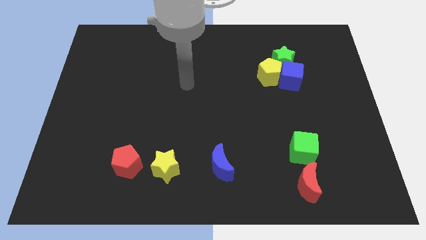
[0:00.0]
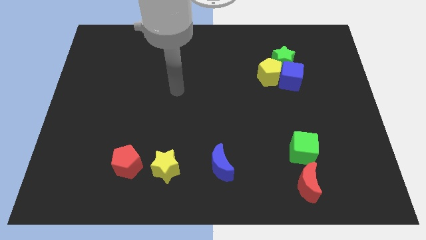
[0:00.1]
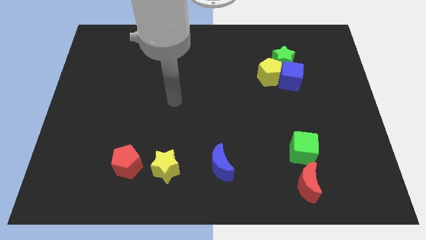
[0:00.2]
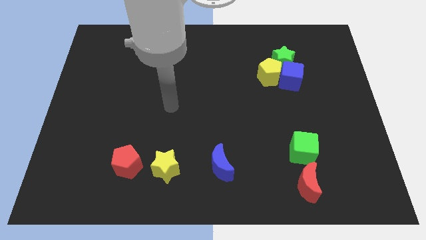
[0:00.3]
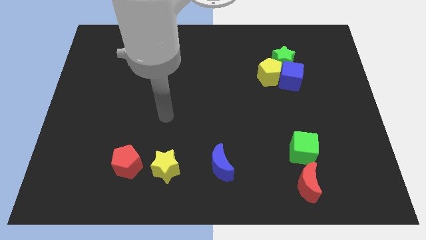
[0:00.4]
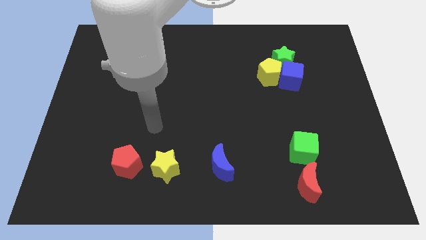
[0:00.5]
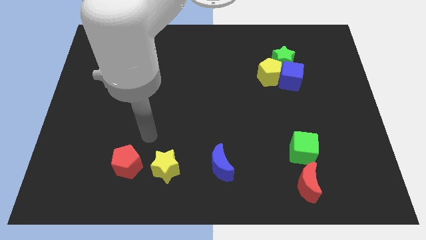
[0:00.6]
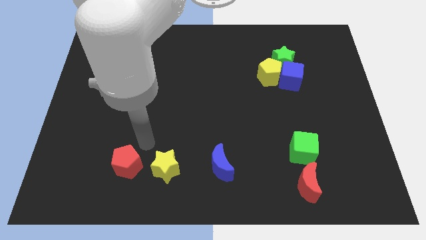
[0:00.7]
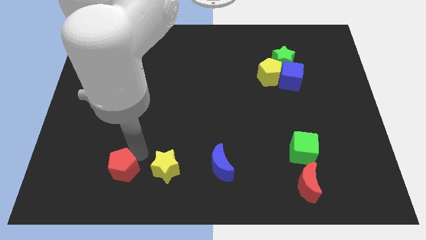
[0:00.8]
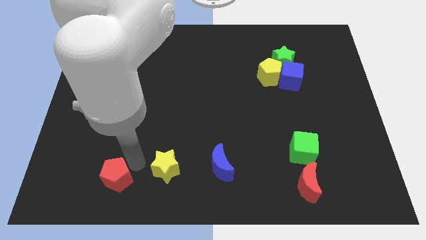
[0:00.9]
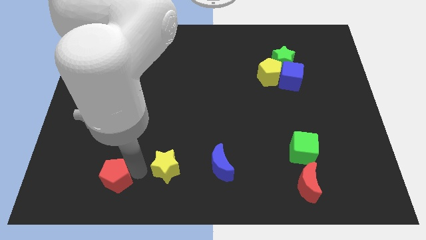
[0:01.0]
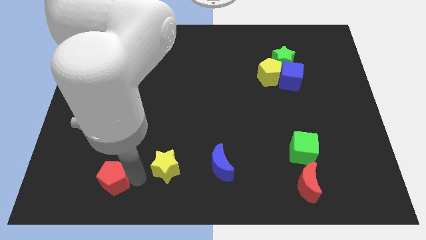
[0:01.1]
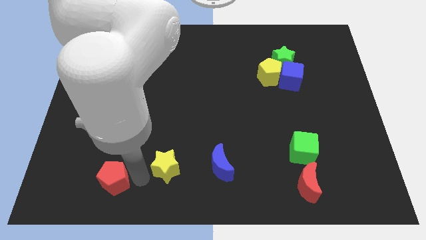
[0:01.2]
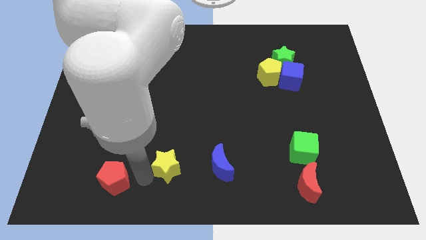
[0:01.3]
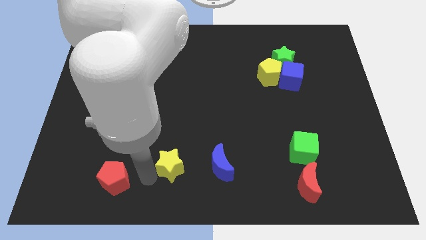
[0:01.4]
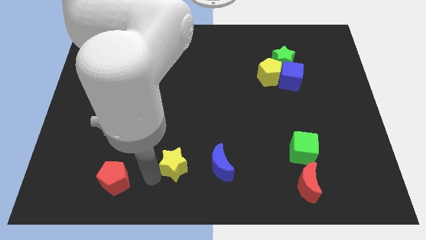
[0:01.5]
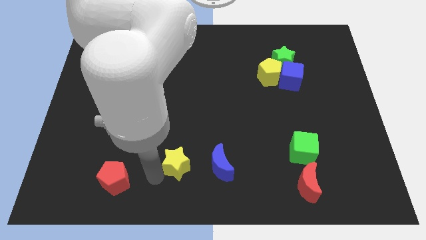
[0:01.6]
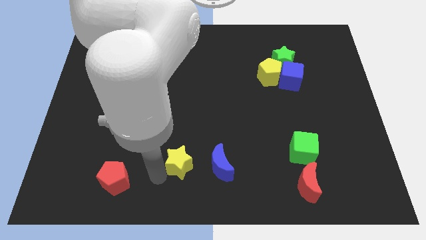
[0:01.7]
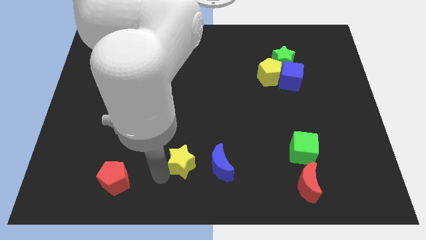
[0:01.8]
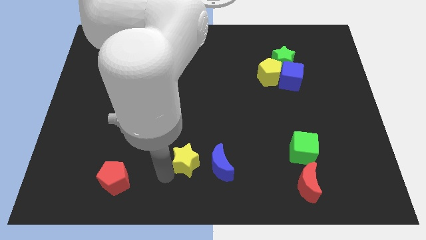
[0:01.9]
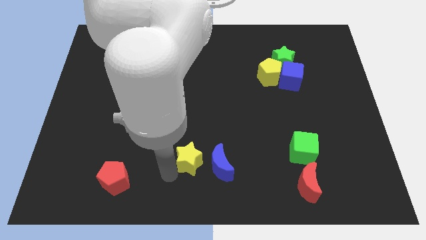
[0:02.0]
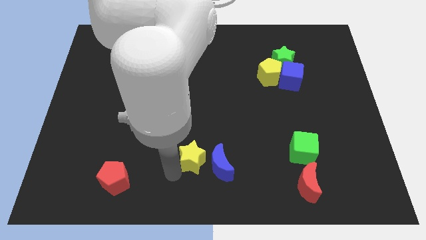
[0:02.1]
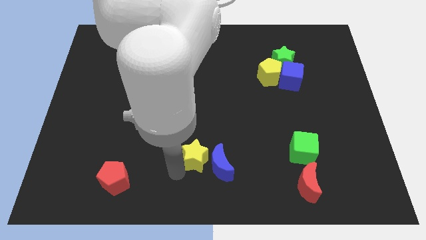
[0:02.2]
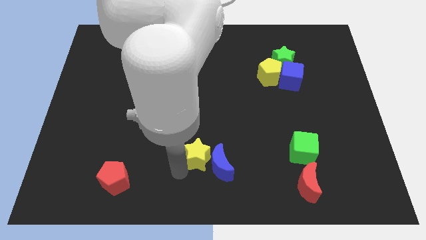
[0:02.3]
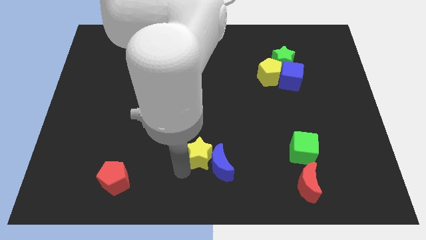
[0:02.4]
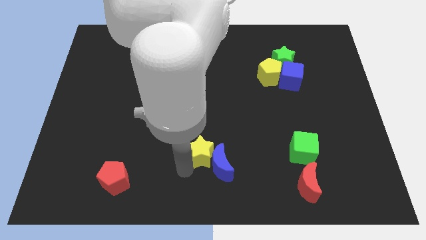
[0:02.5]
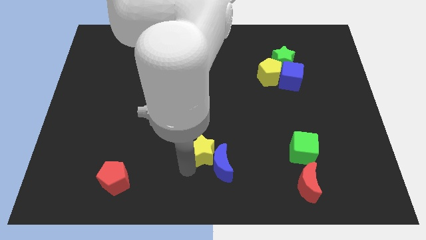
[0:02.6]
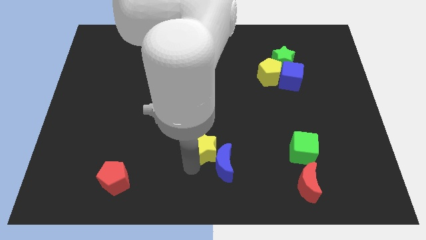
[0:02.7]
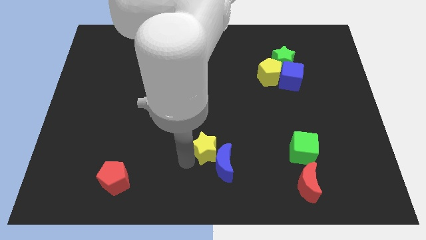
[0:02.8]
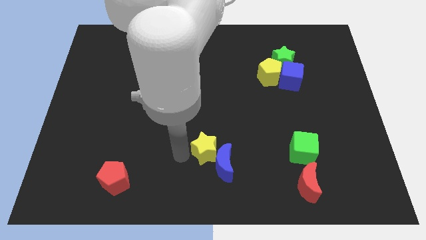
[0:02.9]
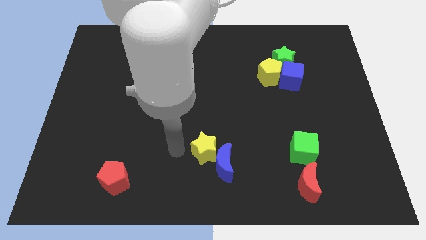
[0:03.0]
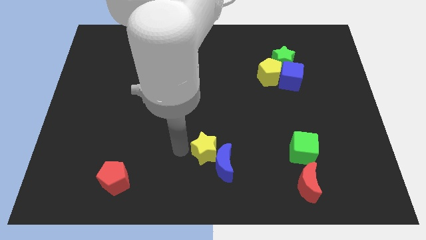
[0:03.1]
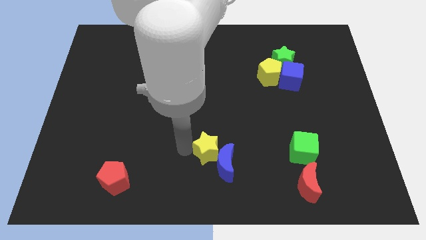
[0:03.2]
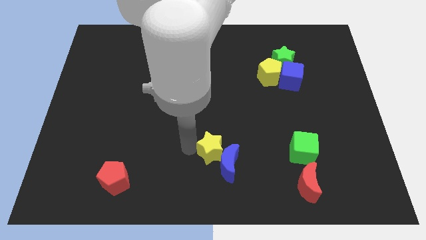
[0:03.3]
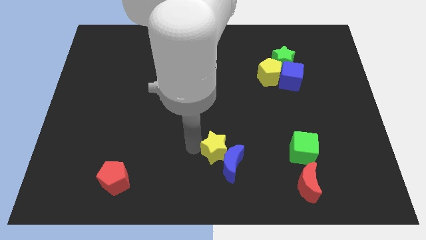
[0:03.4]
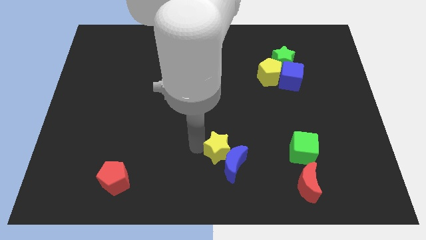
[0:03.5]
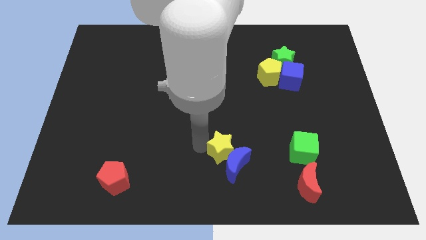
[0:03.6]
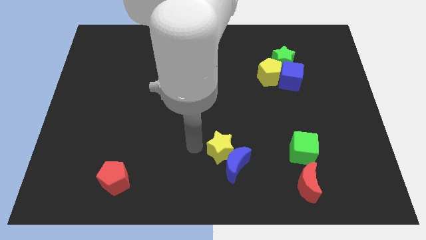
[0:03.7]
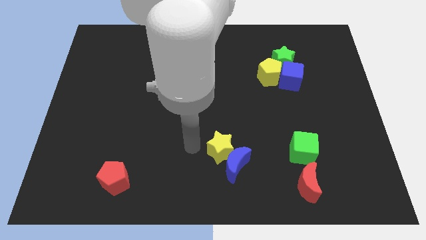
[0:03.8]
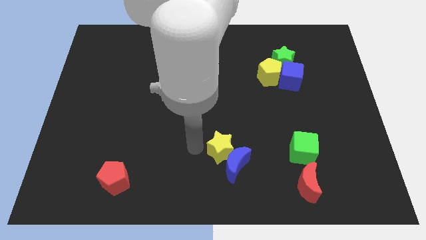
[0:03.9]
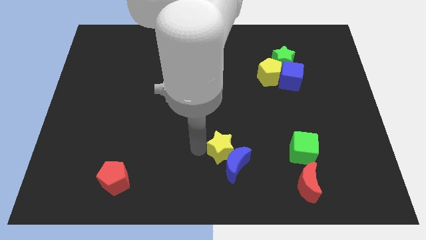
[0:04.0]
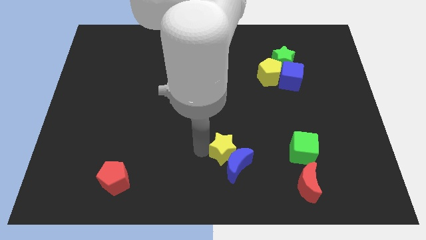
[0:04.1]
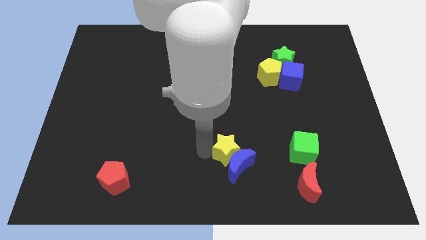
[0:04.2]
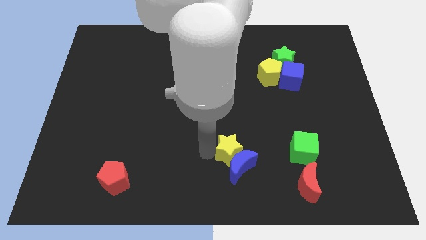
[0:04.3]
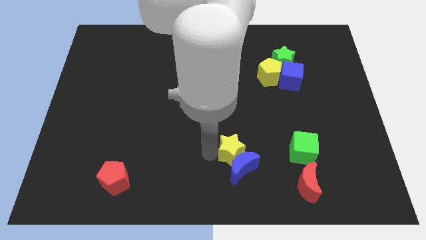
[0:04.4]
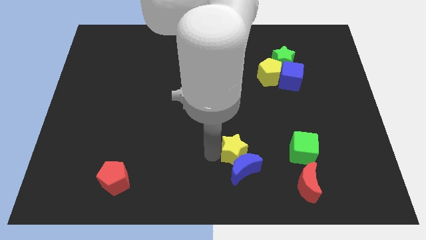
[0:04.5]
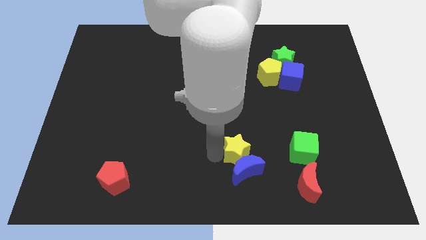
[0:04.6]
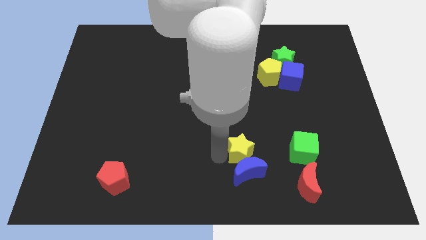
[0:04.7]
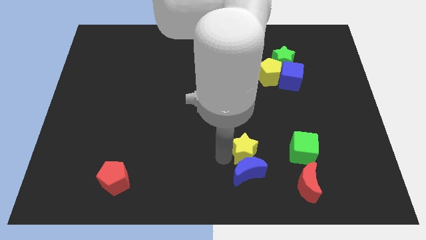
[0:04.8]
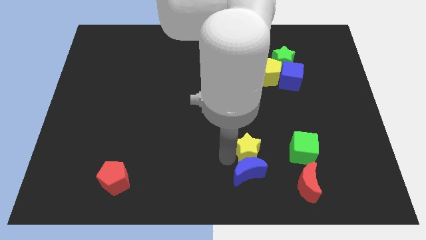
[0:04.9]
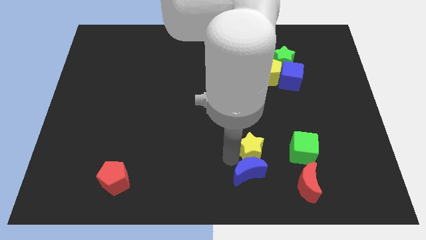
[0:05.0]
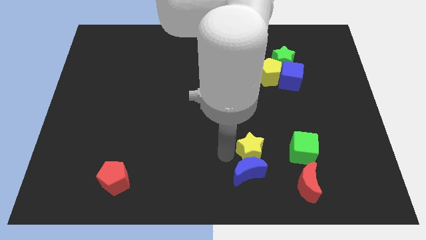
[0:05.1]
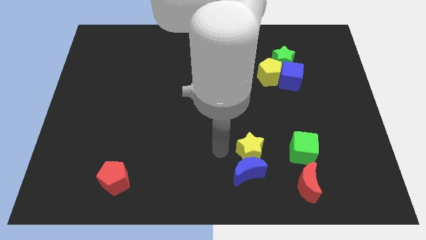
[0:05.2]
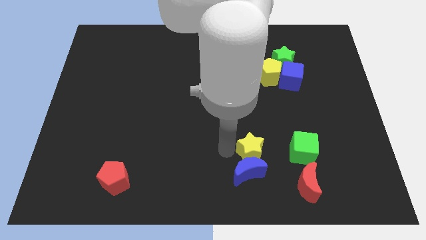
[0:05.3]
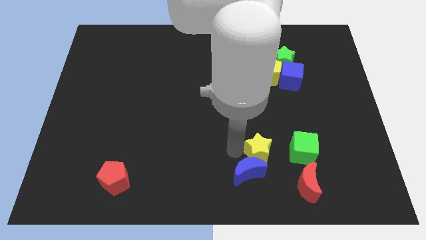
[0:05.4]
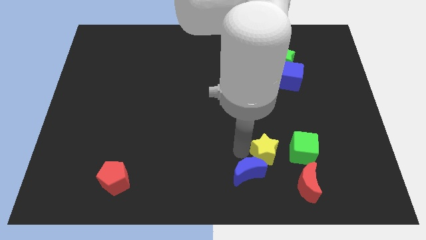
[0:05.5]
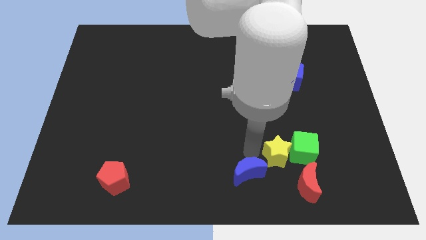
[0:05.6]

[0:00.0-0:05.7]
push the yellow star to the green cube

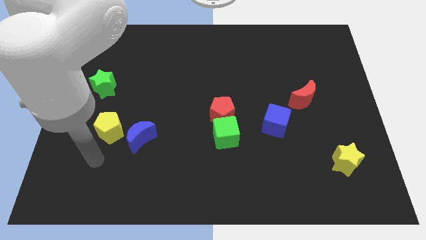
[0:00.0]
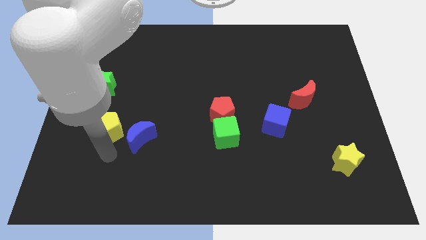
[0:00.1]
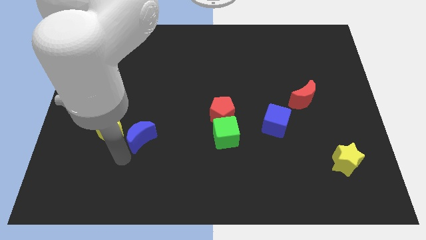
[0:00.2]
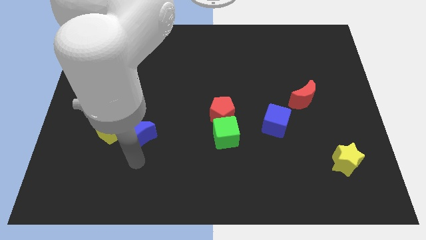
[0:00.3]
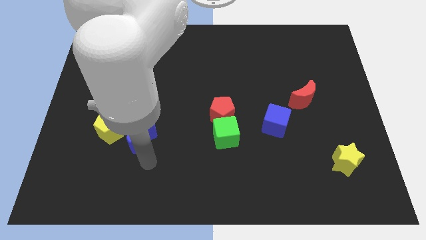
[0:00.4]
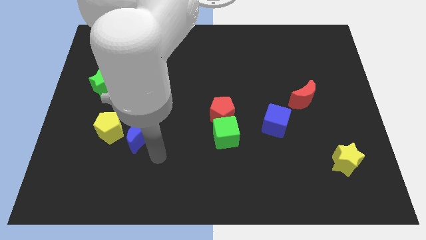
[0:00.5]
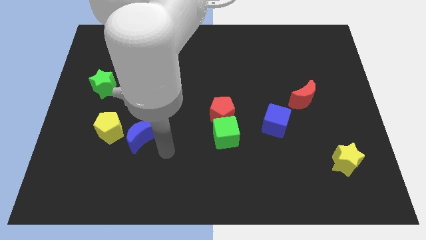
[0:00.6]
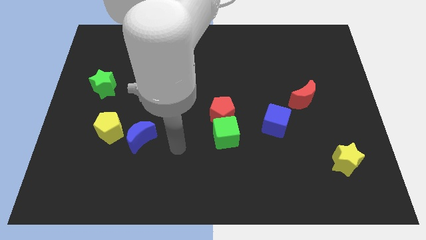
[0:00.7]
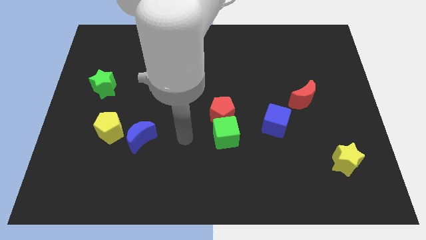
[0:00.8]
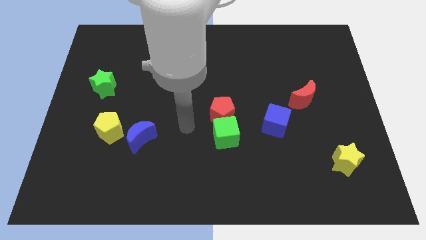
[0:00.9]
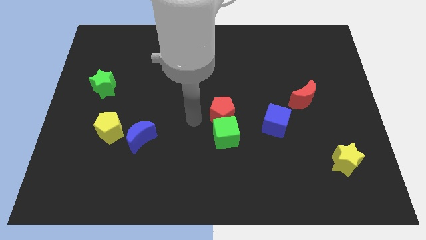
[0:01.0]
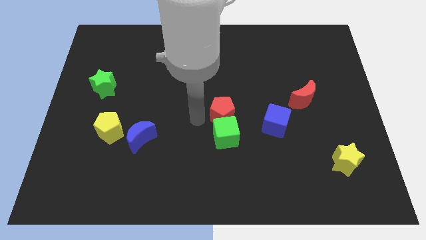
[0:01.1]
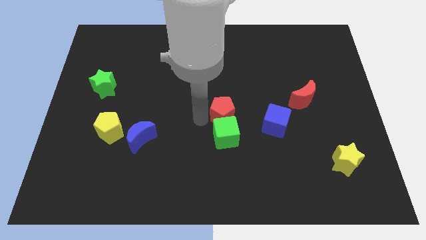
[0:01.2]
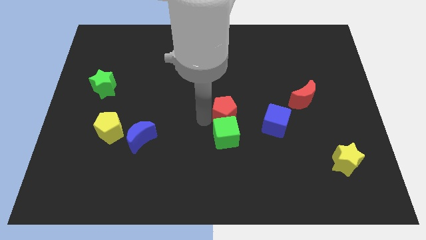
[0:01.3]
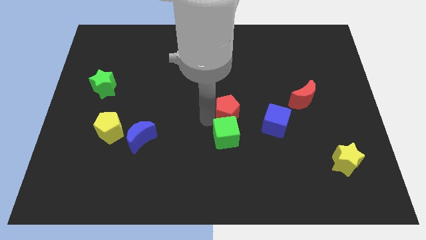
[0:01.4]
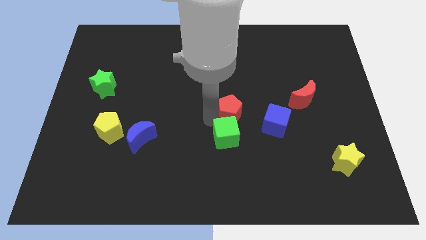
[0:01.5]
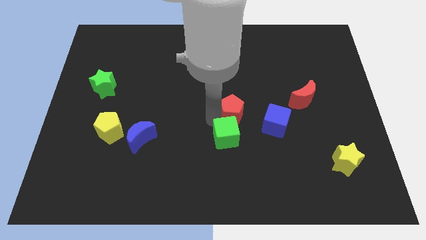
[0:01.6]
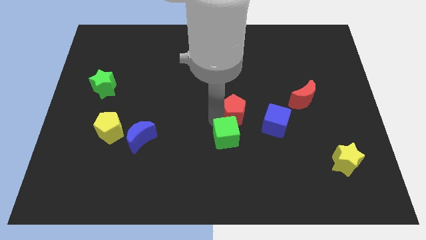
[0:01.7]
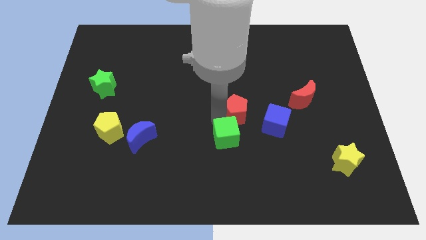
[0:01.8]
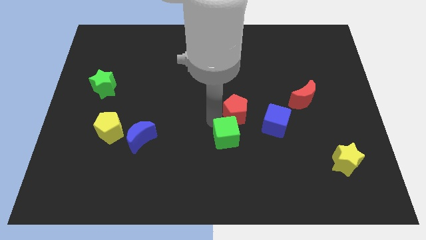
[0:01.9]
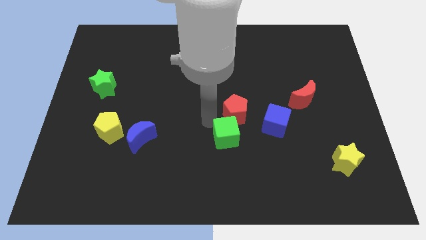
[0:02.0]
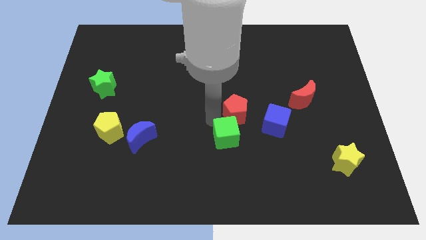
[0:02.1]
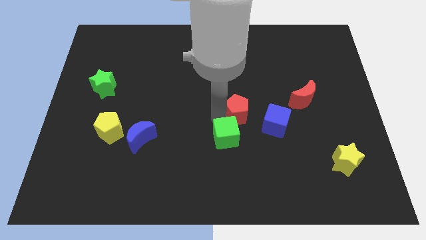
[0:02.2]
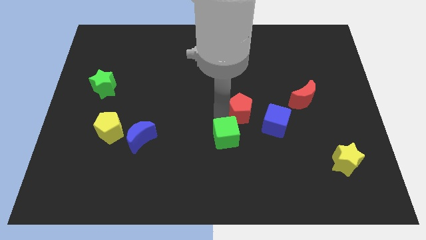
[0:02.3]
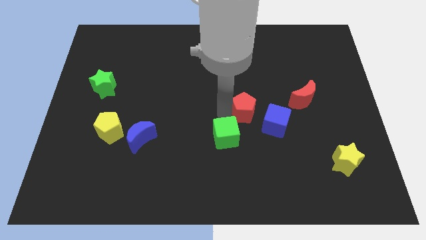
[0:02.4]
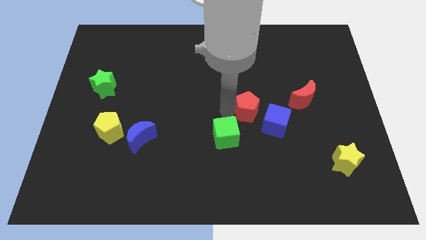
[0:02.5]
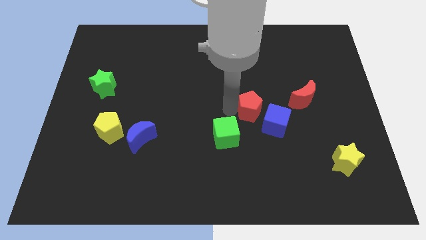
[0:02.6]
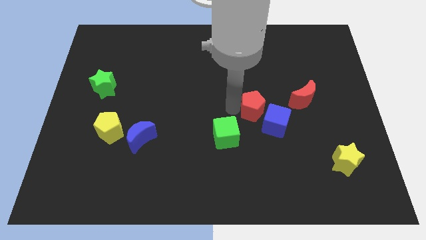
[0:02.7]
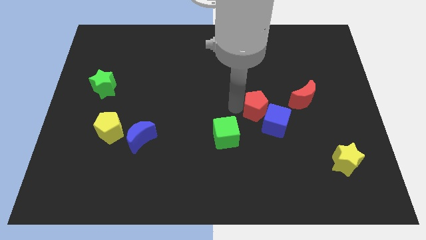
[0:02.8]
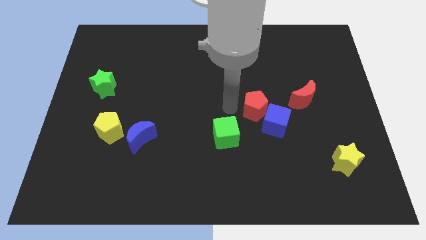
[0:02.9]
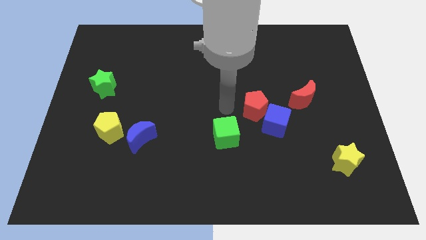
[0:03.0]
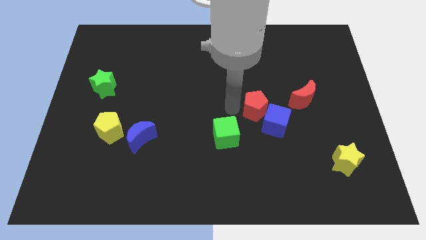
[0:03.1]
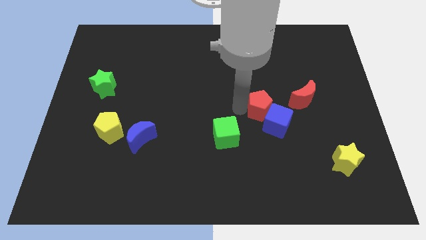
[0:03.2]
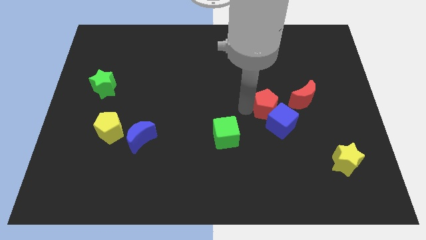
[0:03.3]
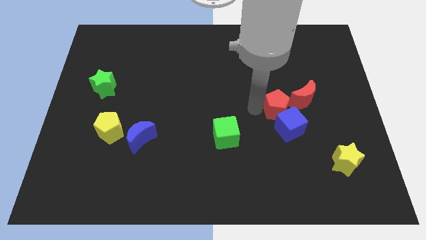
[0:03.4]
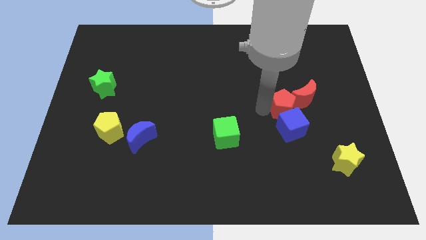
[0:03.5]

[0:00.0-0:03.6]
slide the red pentagon next to the red moon
